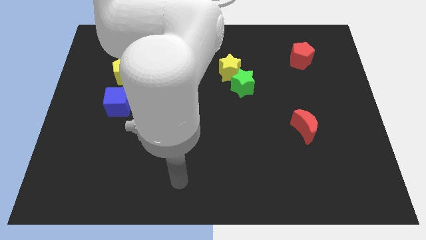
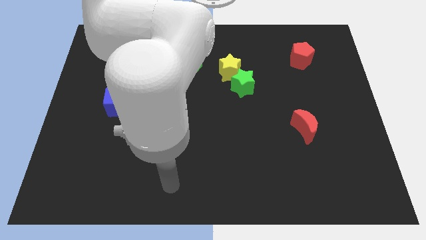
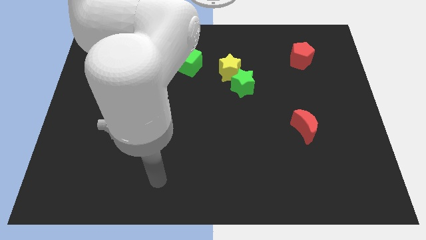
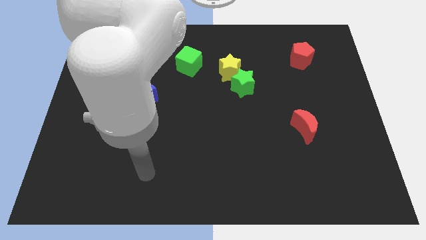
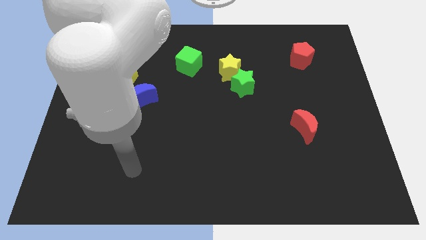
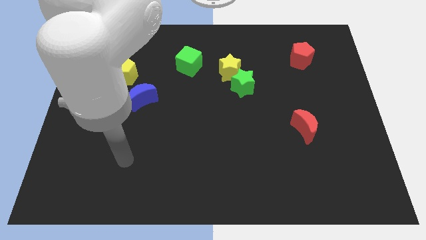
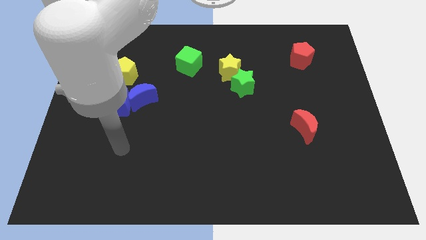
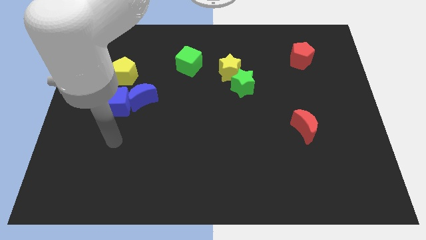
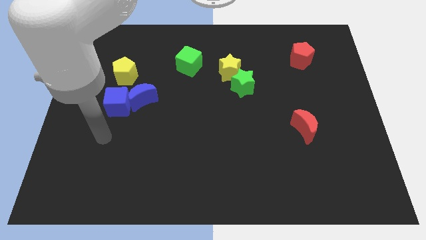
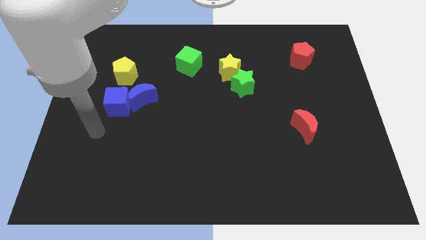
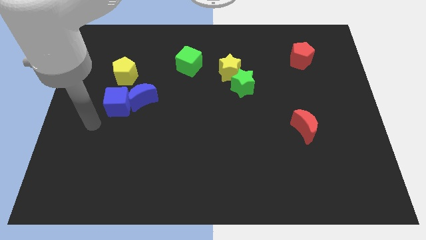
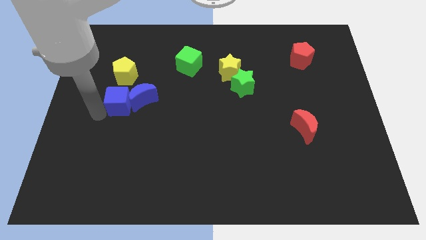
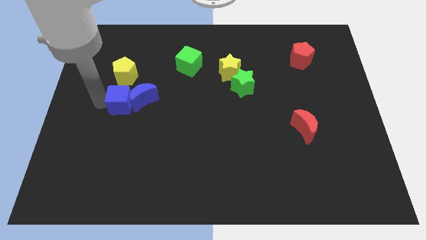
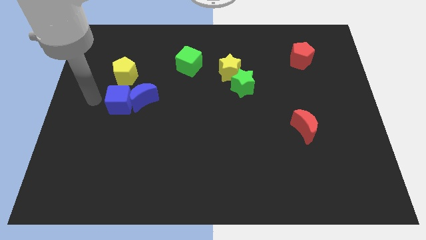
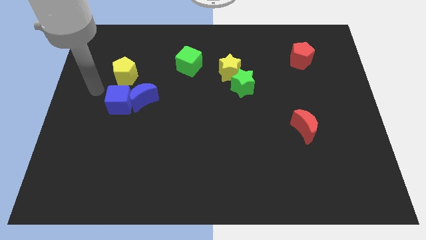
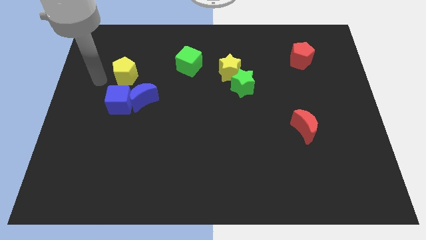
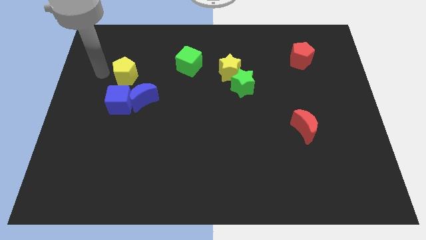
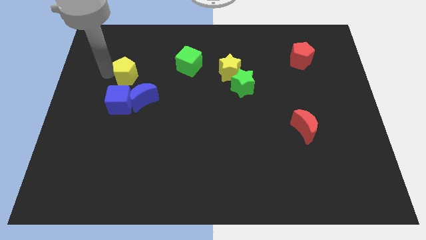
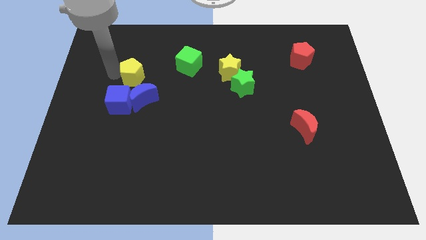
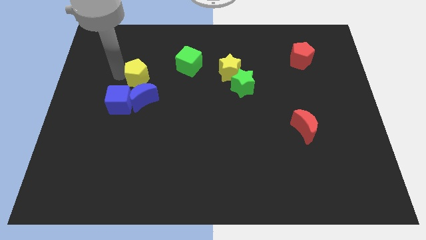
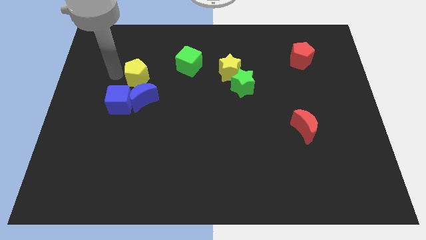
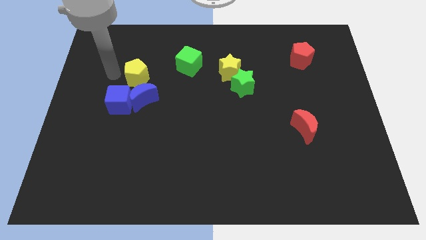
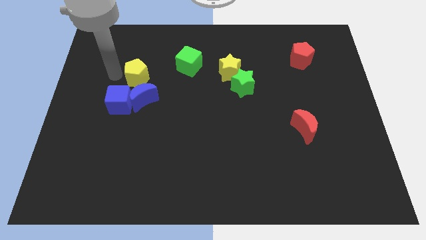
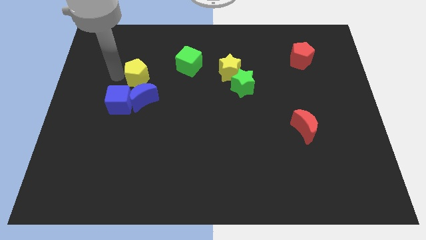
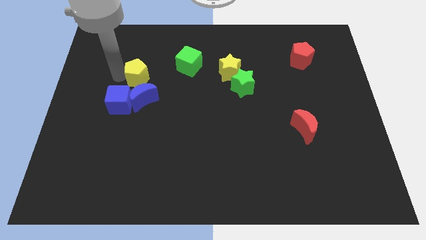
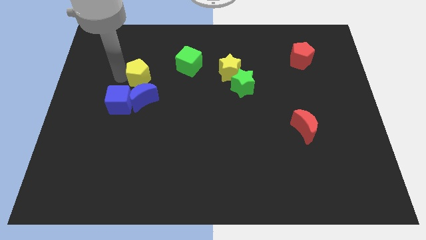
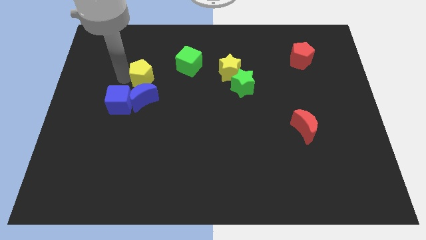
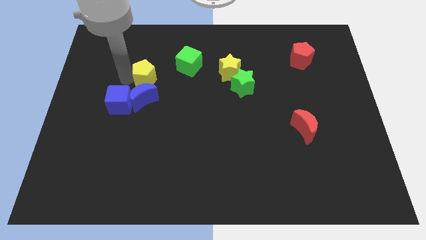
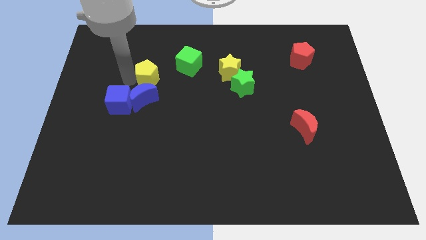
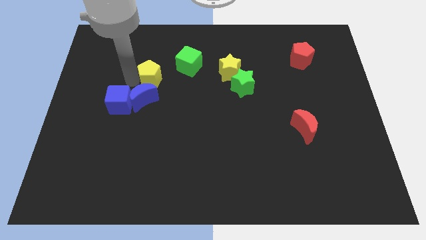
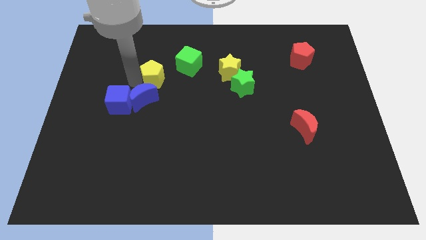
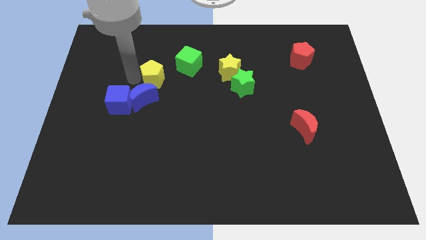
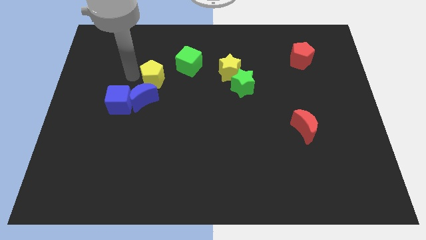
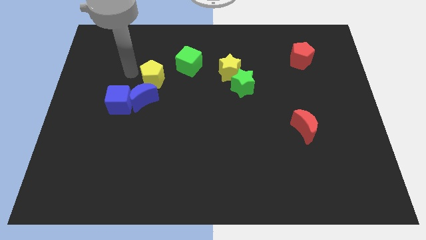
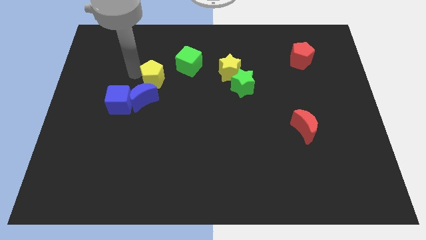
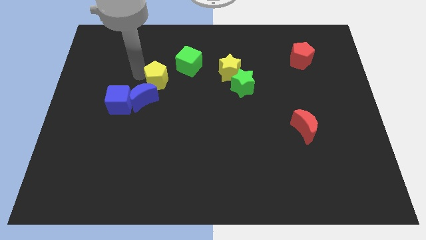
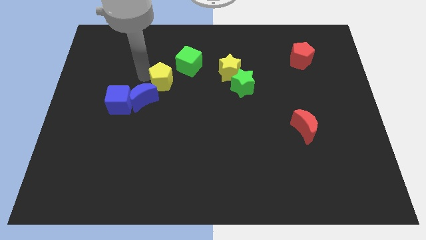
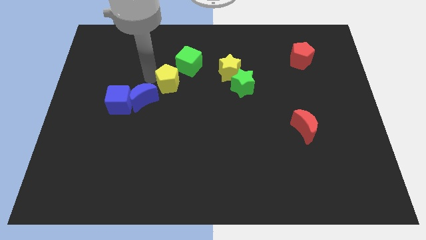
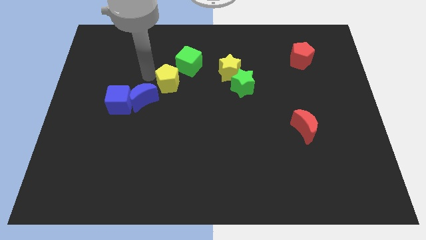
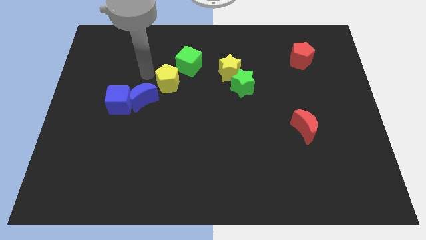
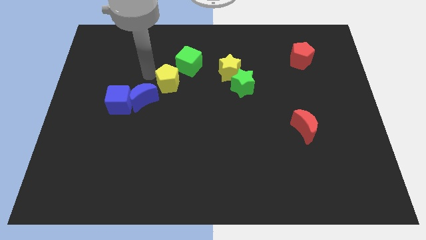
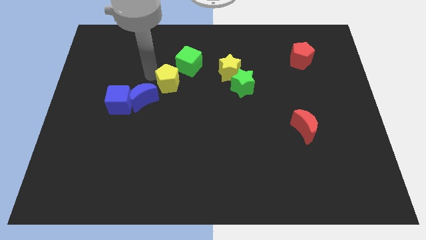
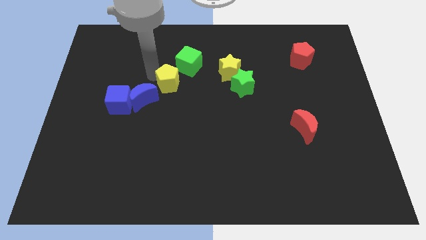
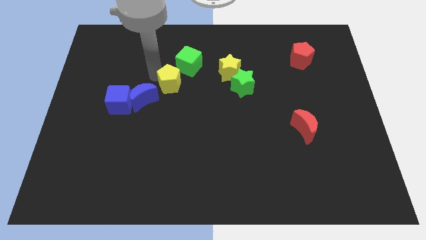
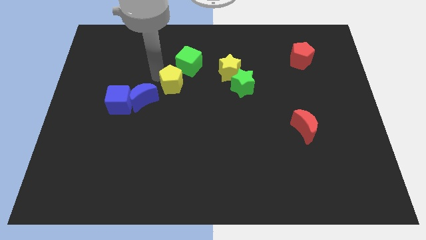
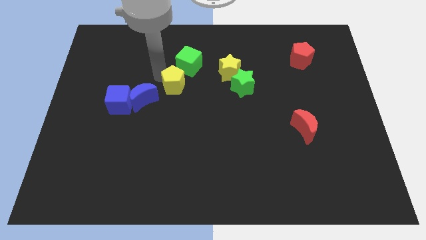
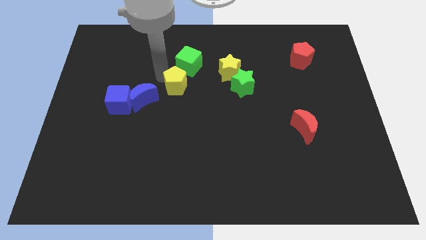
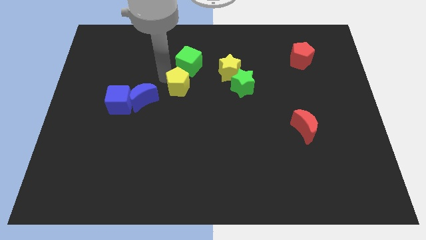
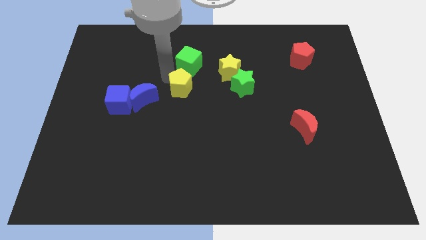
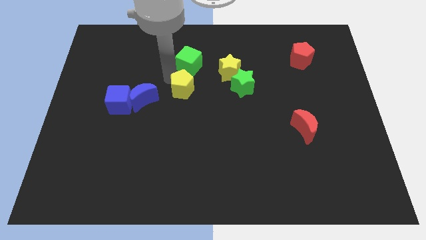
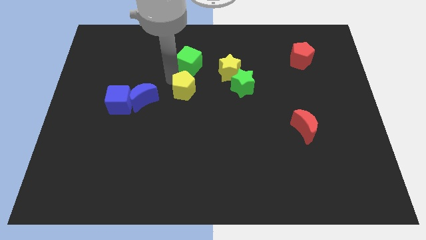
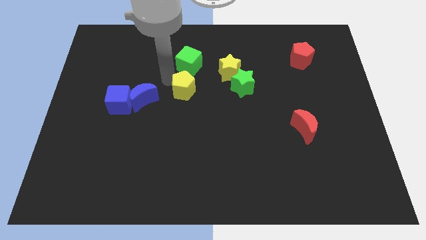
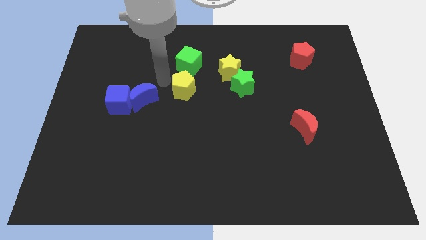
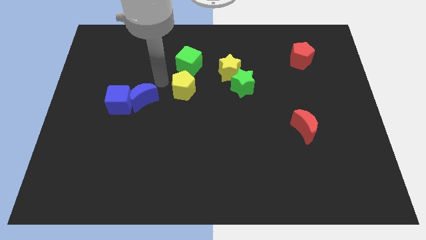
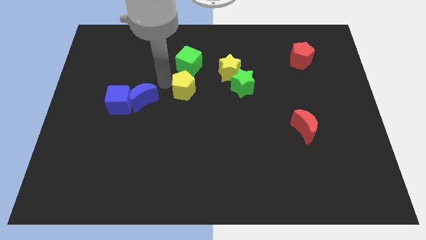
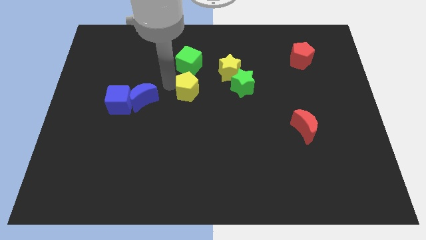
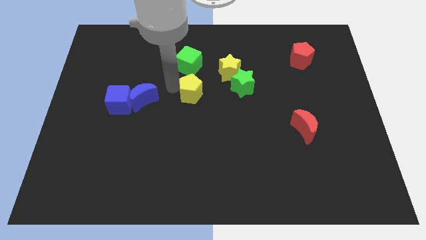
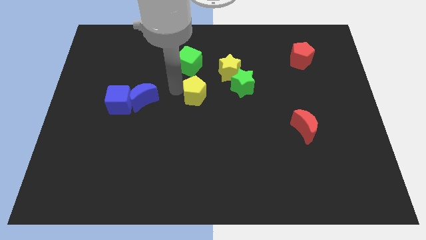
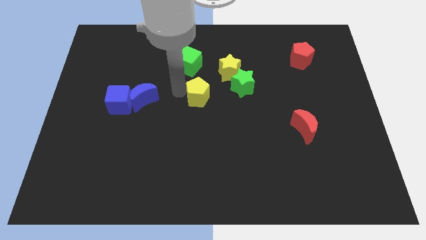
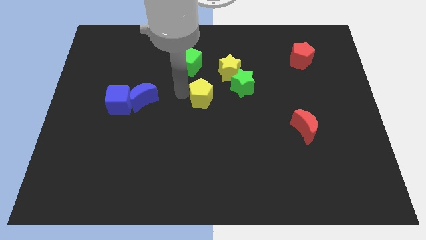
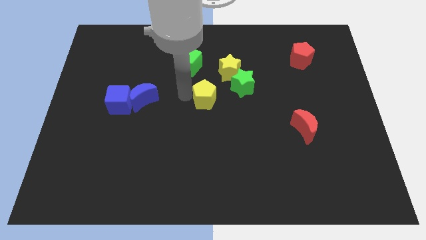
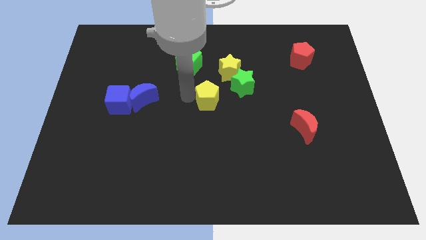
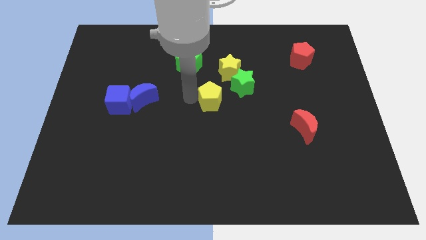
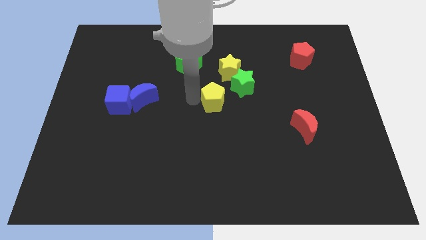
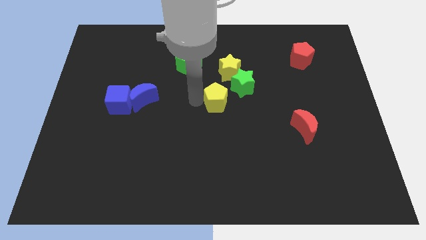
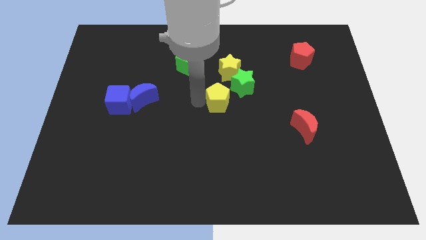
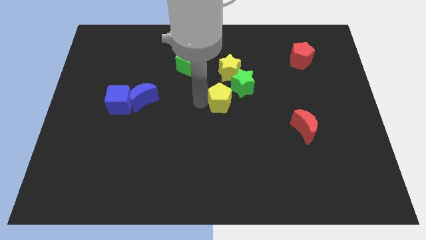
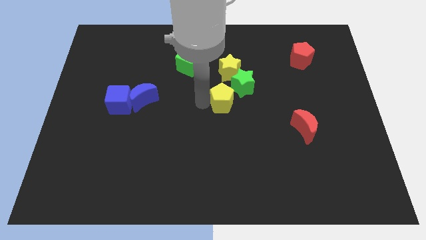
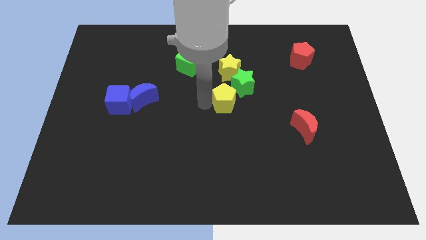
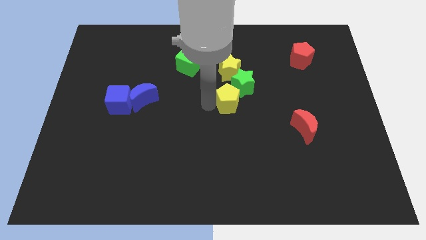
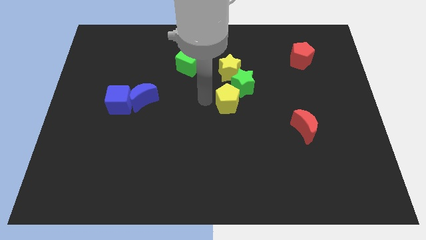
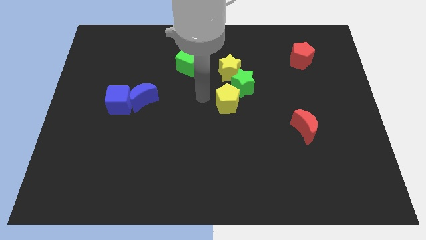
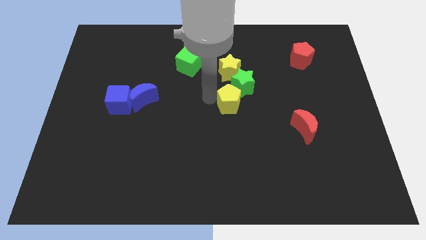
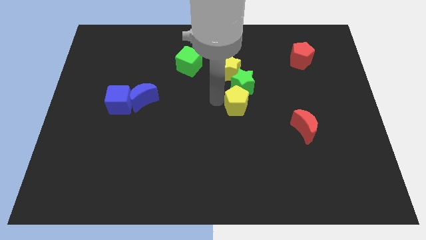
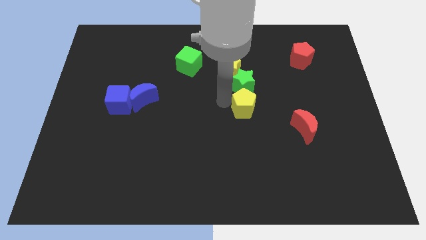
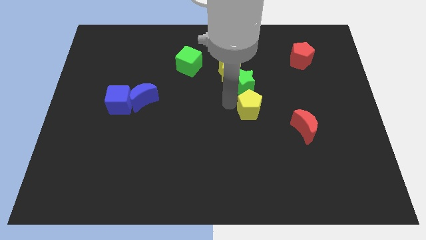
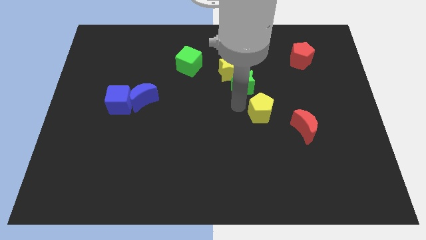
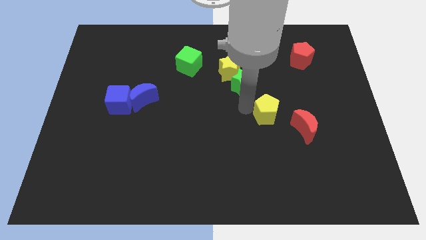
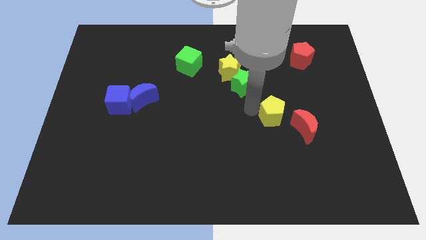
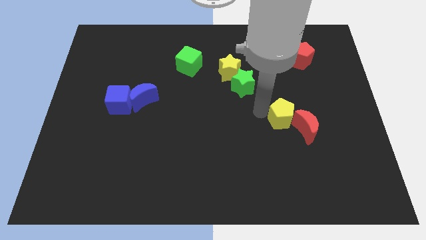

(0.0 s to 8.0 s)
move the yellow pentagon to the red moon
